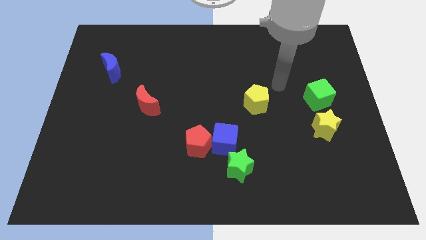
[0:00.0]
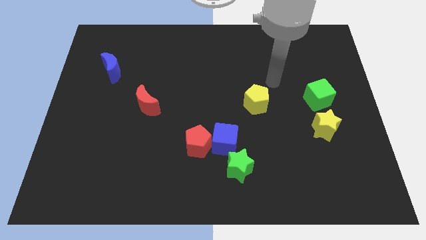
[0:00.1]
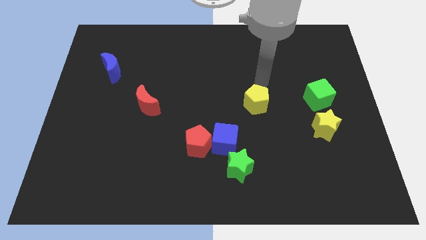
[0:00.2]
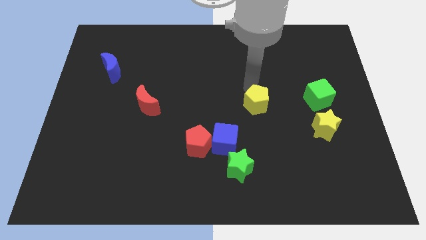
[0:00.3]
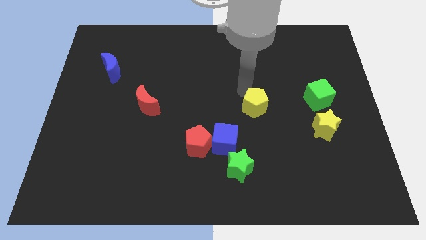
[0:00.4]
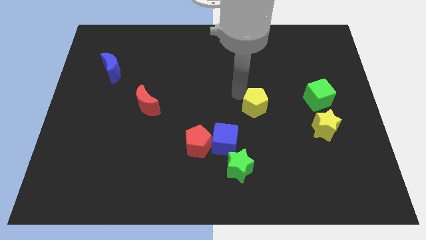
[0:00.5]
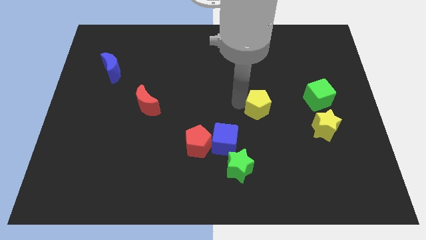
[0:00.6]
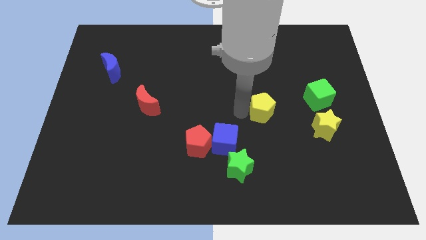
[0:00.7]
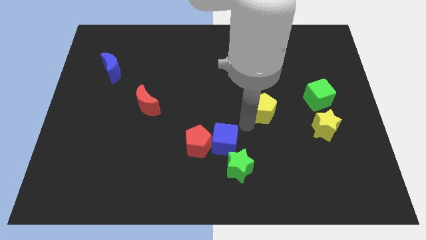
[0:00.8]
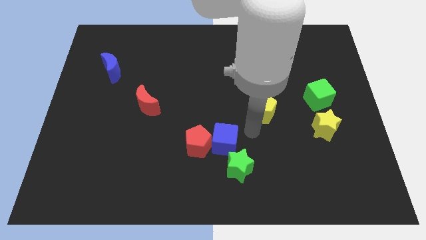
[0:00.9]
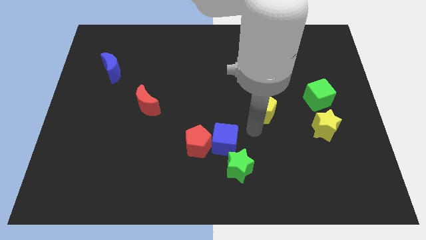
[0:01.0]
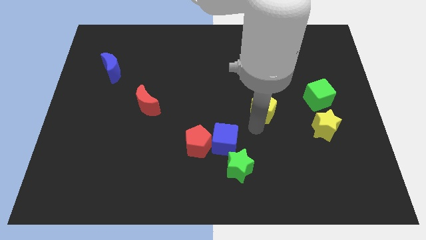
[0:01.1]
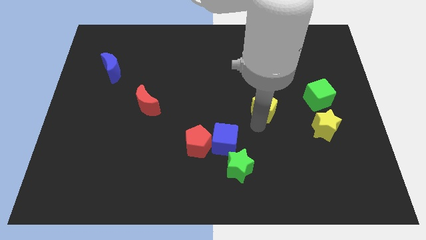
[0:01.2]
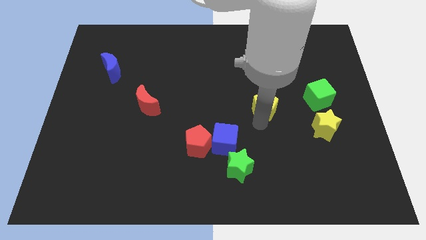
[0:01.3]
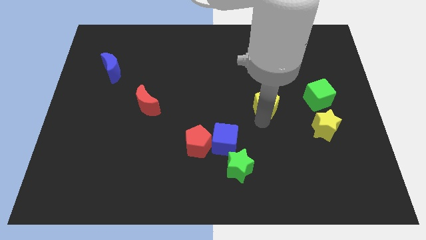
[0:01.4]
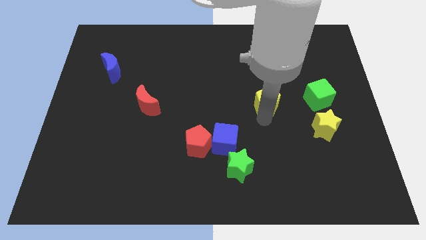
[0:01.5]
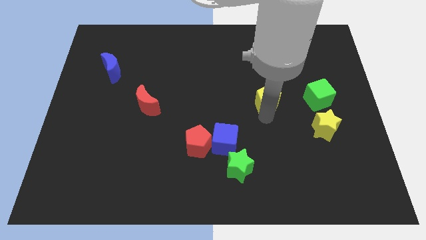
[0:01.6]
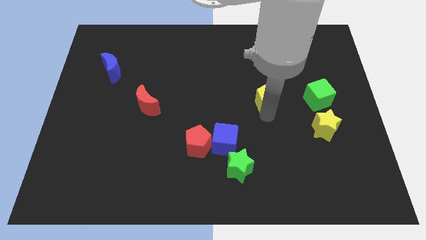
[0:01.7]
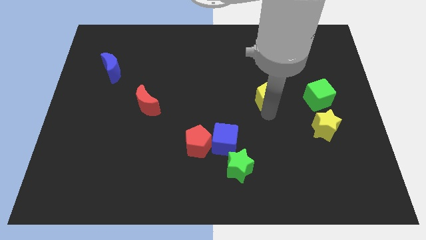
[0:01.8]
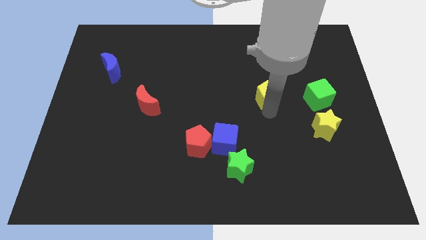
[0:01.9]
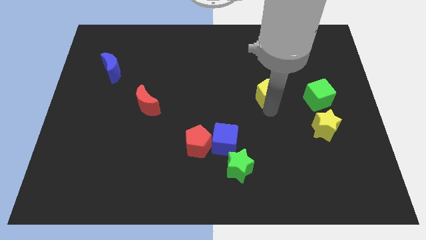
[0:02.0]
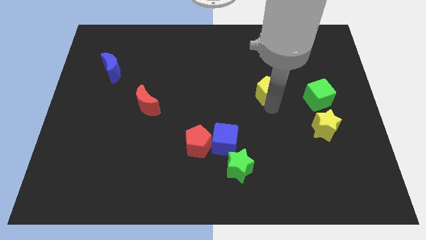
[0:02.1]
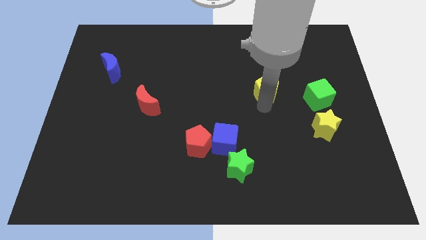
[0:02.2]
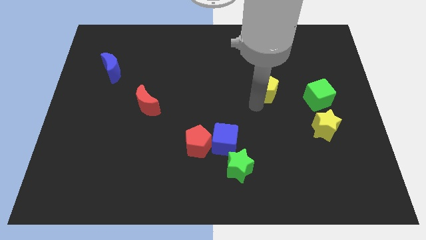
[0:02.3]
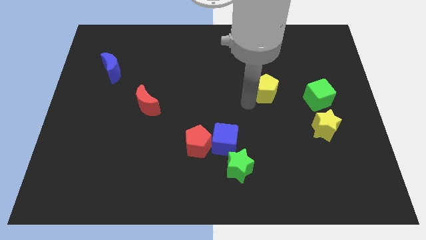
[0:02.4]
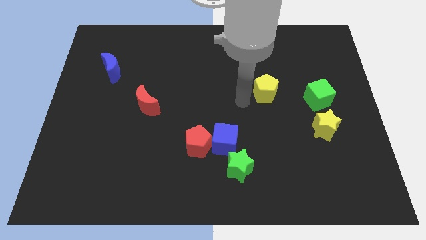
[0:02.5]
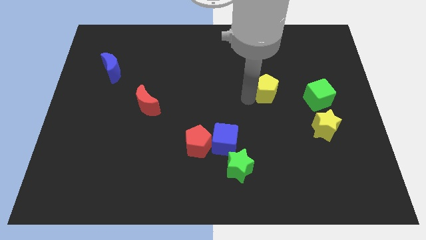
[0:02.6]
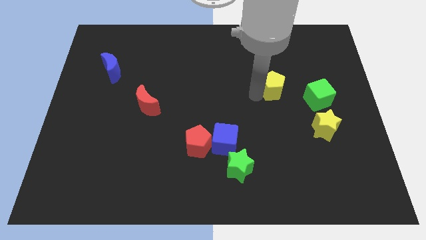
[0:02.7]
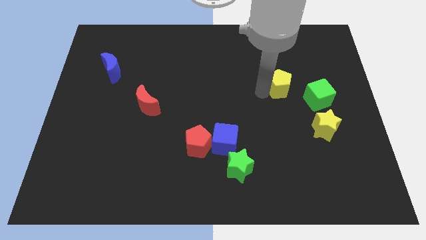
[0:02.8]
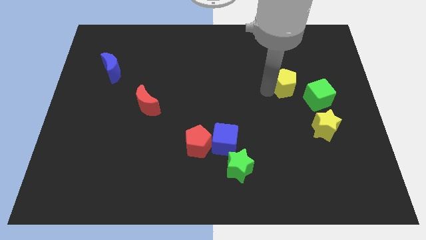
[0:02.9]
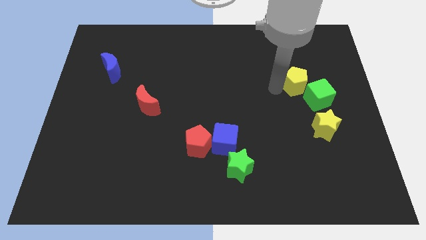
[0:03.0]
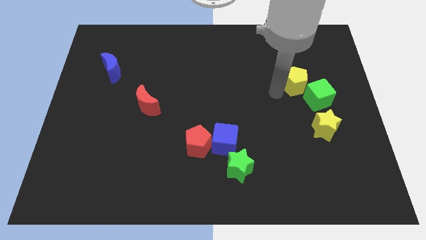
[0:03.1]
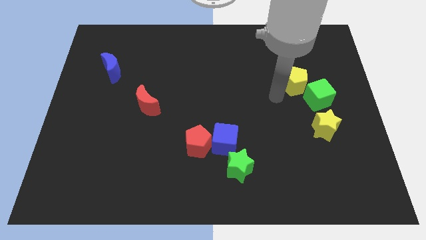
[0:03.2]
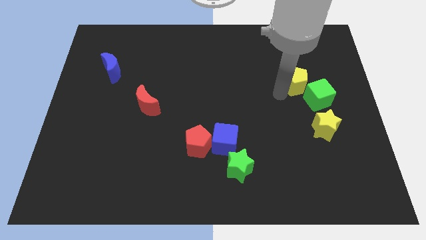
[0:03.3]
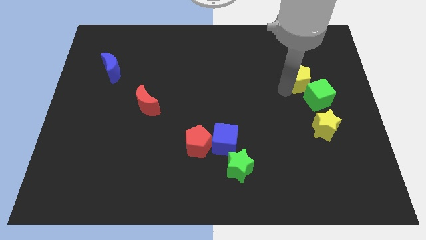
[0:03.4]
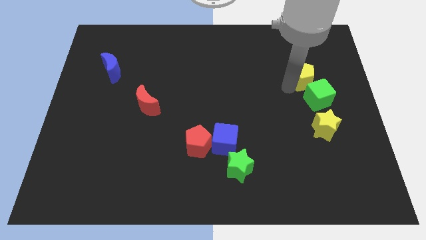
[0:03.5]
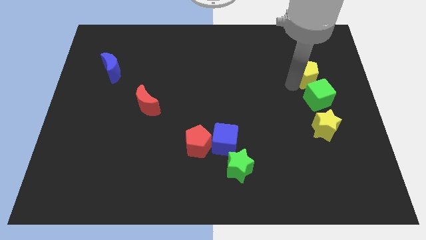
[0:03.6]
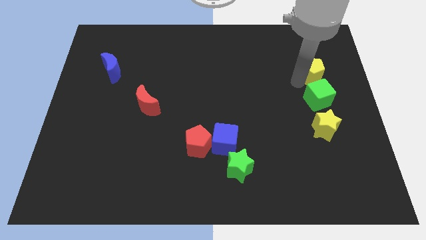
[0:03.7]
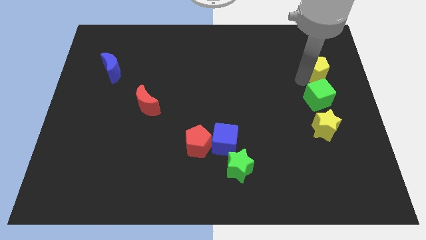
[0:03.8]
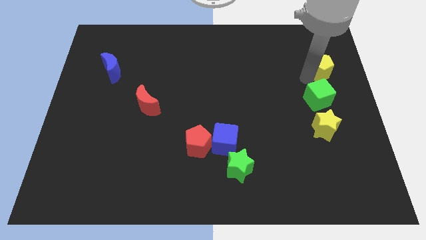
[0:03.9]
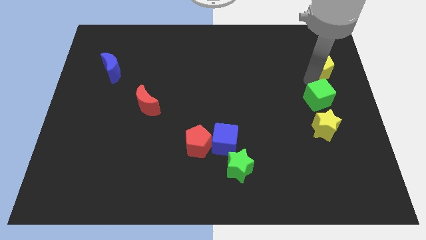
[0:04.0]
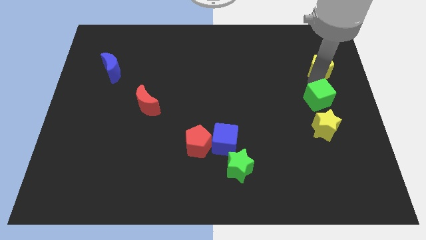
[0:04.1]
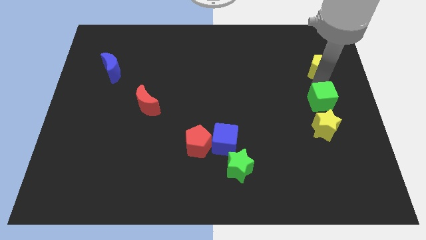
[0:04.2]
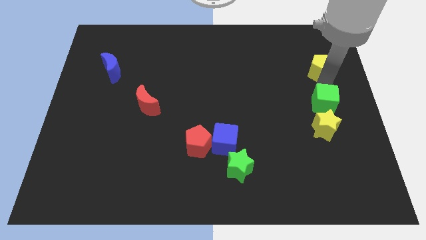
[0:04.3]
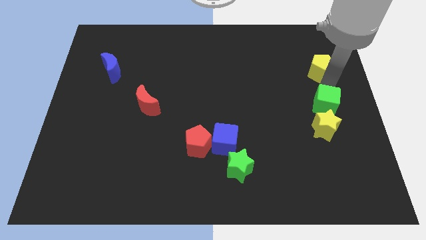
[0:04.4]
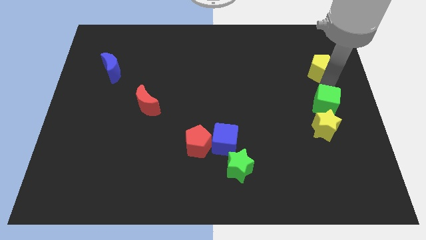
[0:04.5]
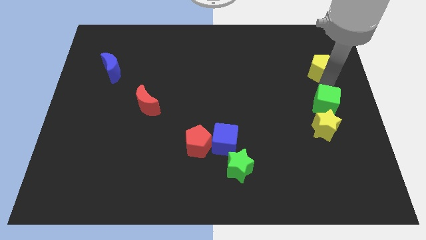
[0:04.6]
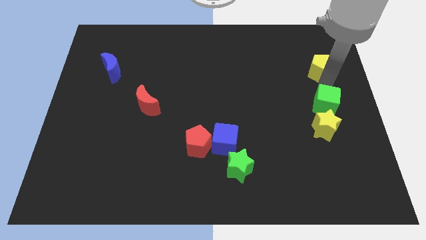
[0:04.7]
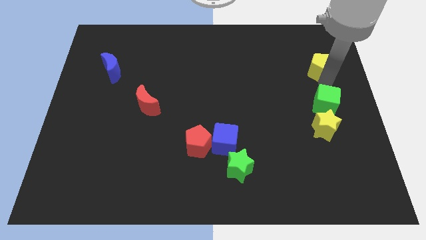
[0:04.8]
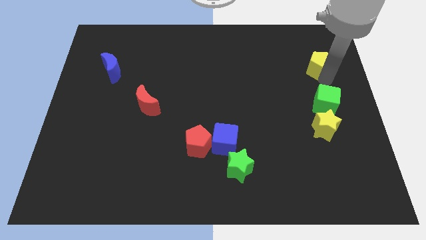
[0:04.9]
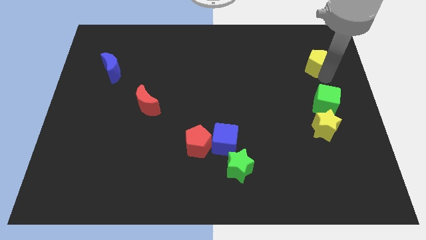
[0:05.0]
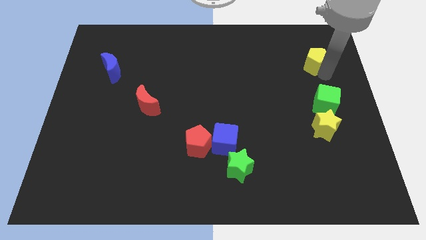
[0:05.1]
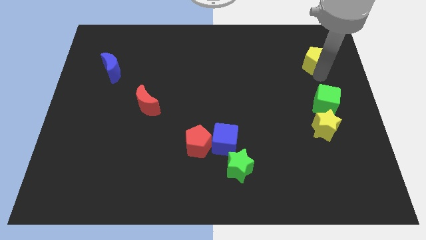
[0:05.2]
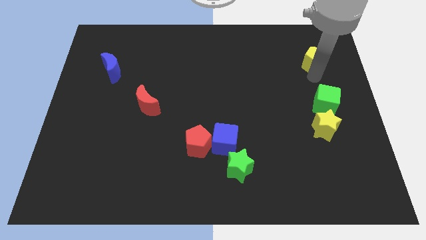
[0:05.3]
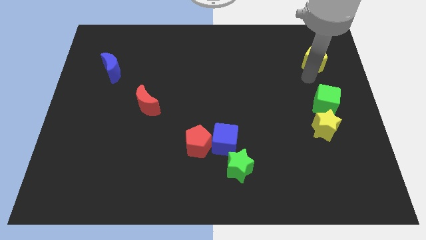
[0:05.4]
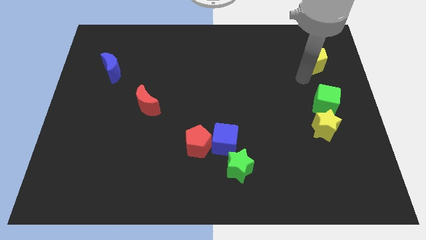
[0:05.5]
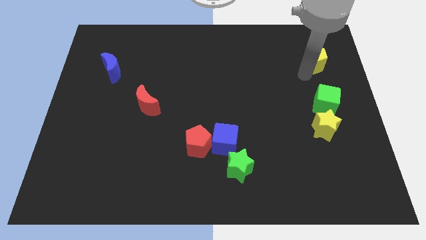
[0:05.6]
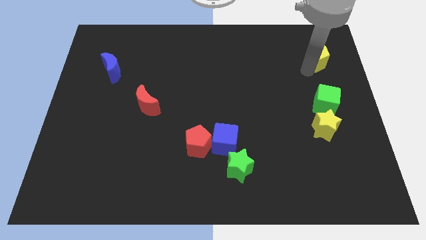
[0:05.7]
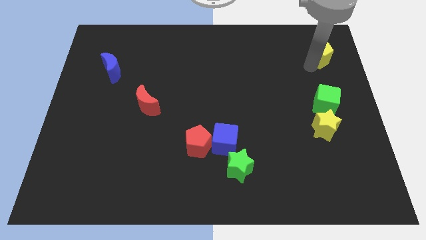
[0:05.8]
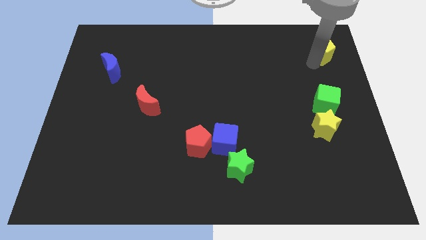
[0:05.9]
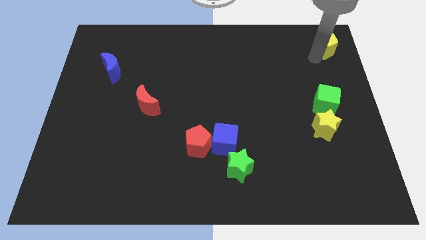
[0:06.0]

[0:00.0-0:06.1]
slide the yellow pentagon to the upper right corner

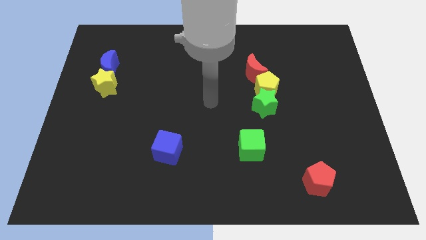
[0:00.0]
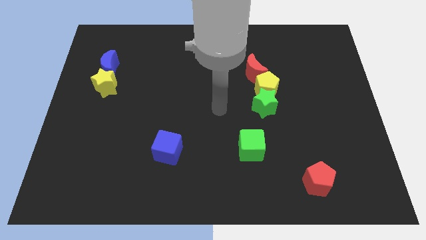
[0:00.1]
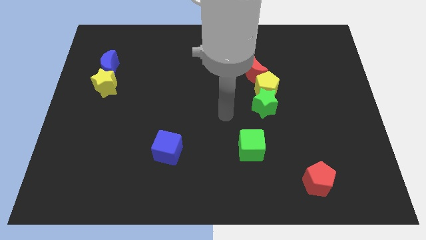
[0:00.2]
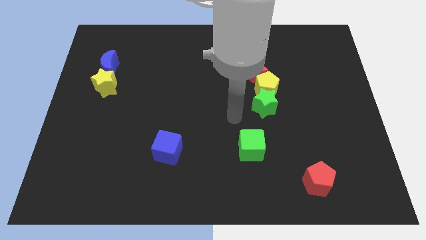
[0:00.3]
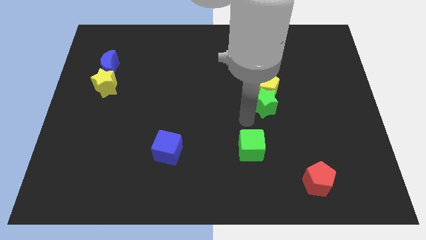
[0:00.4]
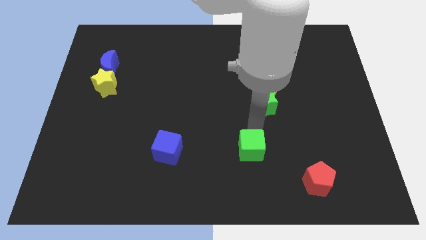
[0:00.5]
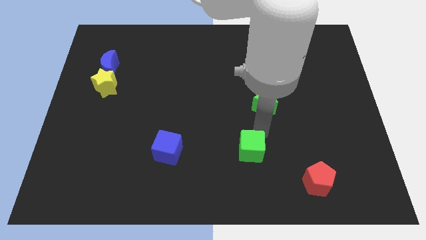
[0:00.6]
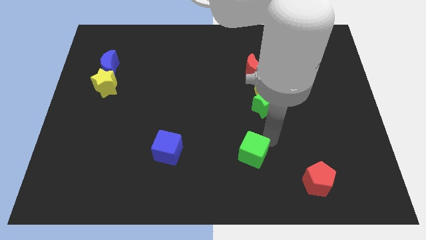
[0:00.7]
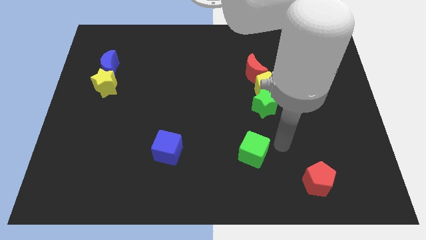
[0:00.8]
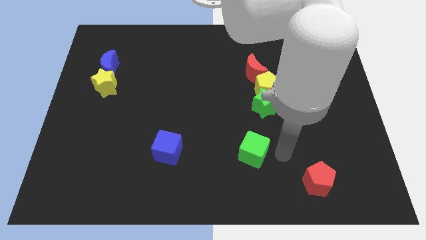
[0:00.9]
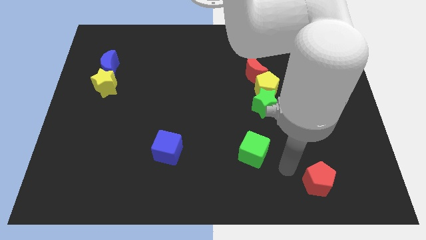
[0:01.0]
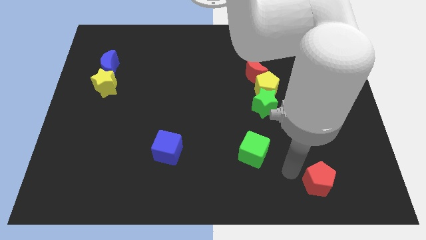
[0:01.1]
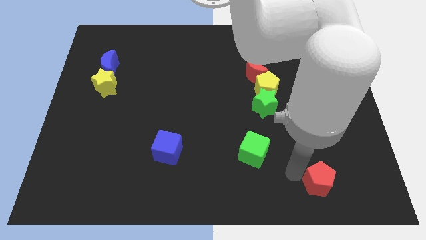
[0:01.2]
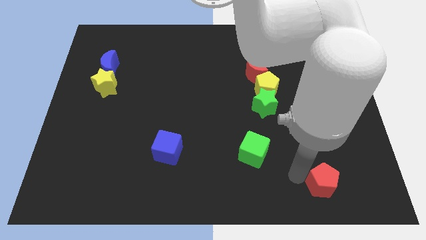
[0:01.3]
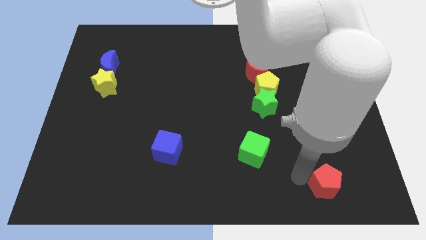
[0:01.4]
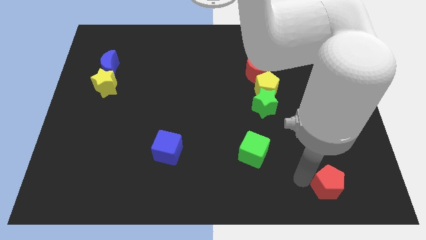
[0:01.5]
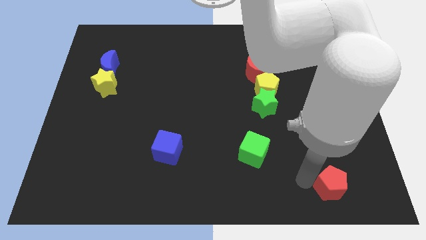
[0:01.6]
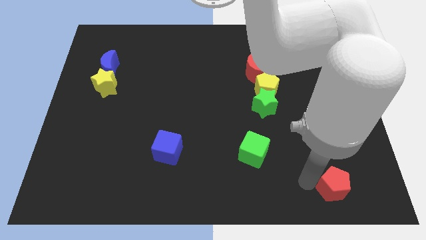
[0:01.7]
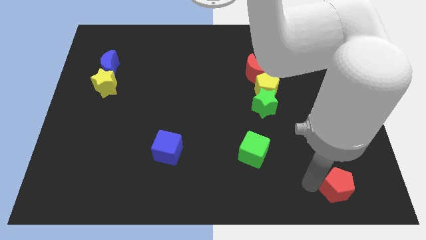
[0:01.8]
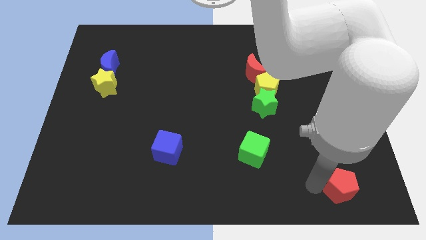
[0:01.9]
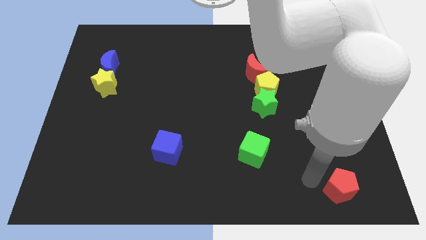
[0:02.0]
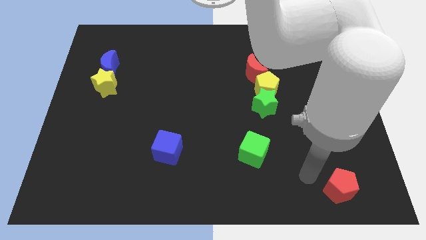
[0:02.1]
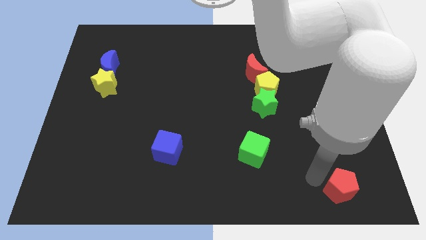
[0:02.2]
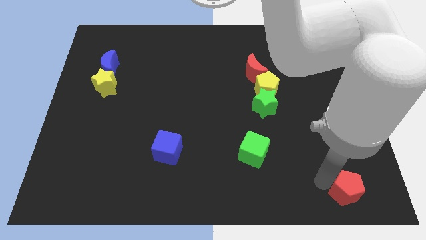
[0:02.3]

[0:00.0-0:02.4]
slide the red pentagon to the bottom right of the board
